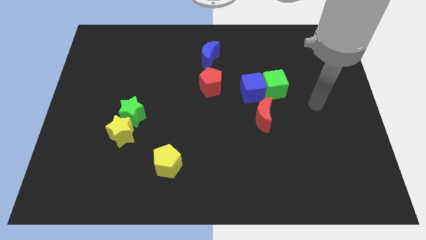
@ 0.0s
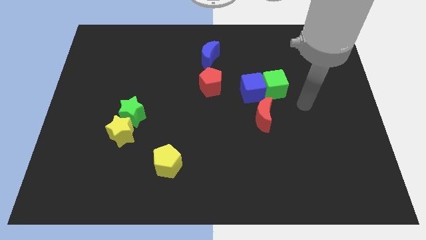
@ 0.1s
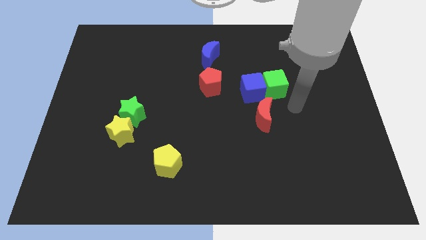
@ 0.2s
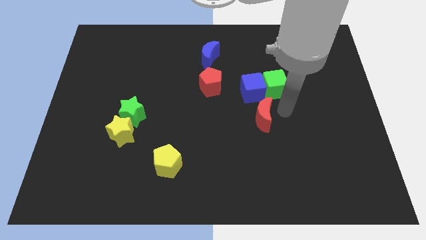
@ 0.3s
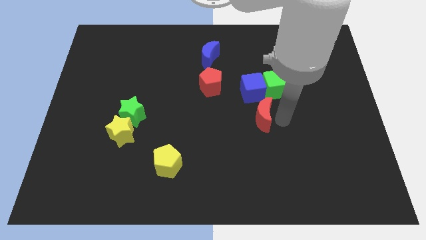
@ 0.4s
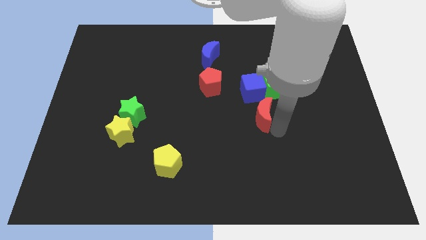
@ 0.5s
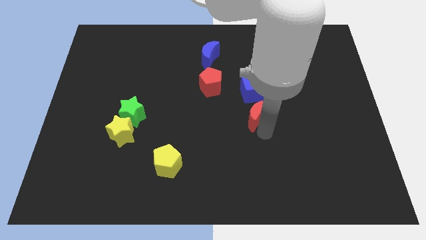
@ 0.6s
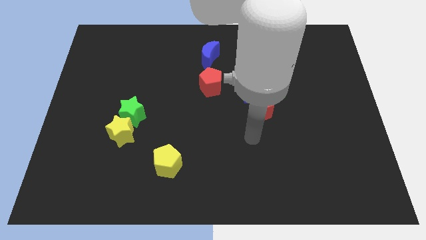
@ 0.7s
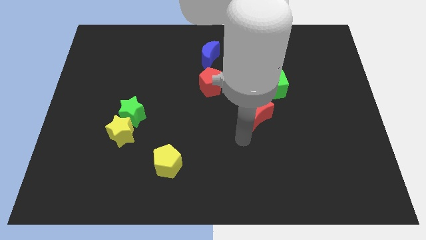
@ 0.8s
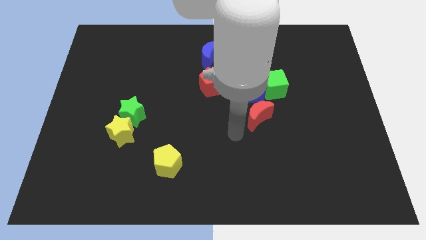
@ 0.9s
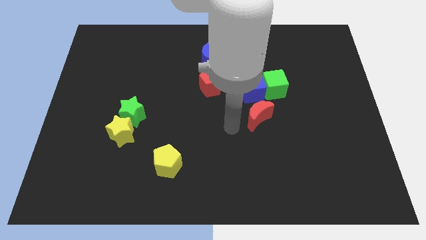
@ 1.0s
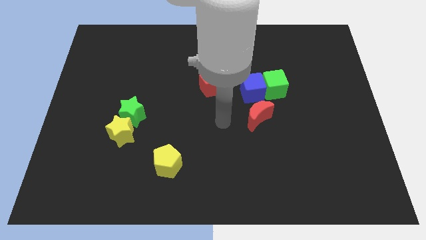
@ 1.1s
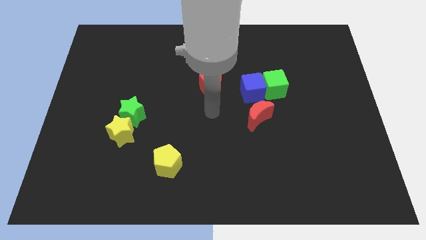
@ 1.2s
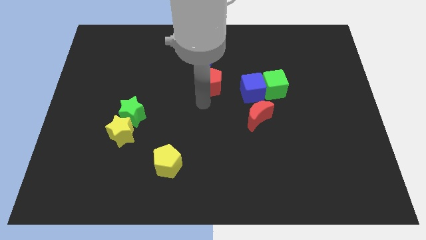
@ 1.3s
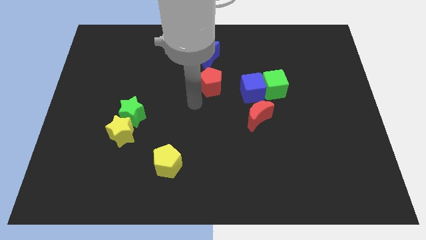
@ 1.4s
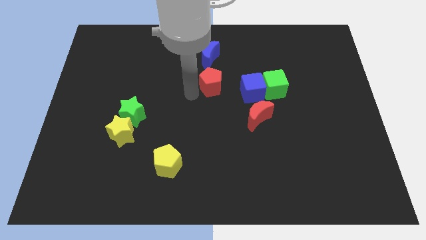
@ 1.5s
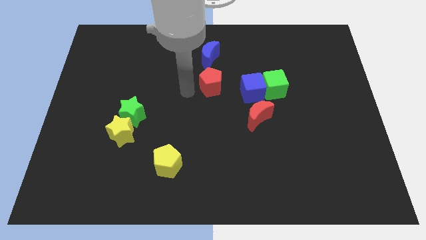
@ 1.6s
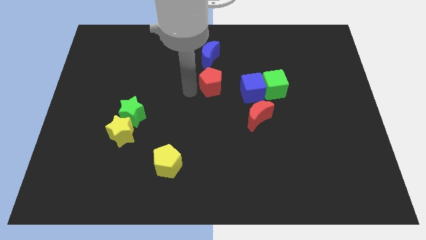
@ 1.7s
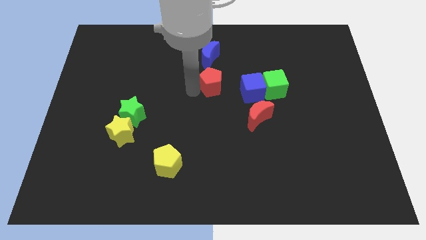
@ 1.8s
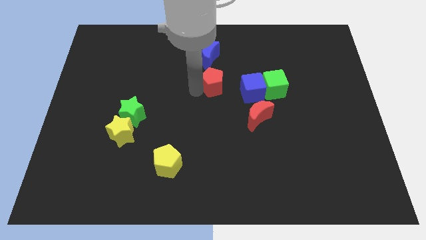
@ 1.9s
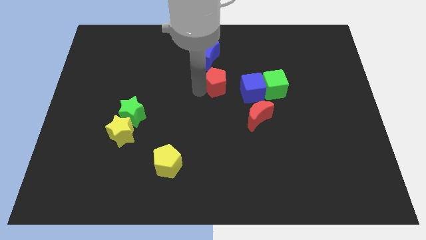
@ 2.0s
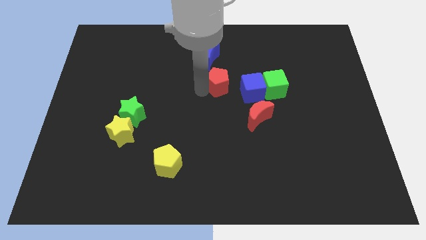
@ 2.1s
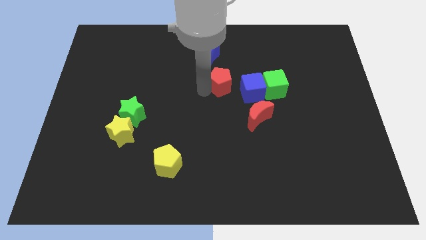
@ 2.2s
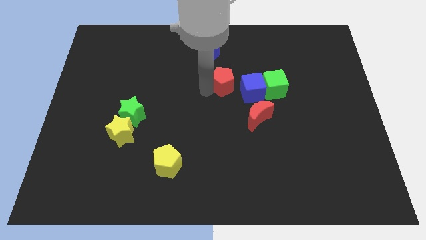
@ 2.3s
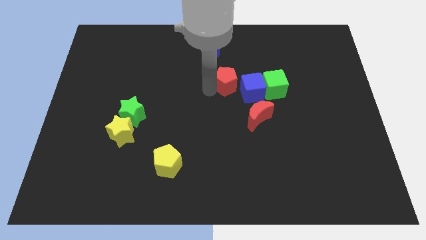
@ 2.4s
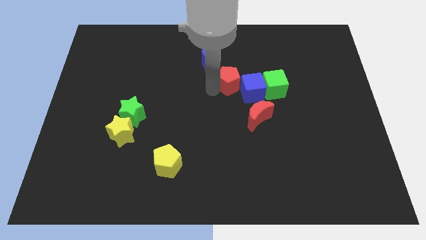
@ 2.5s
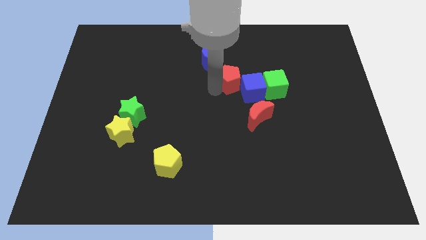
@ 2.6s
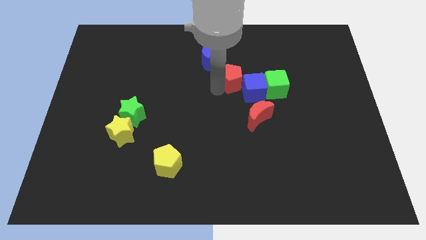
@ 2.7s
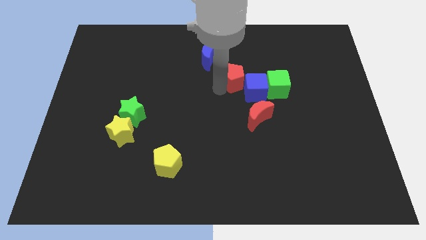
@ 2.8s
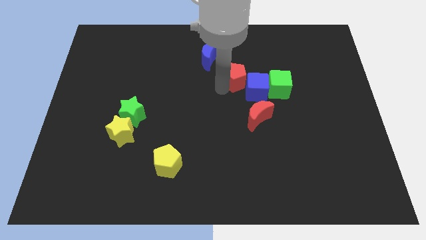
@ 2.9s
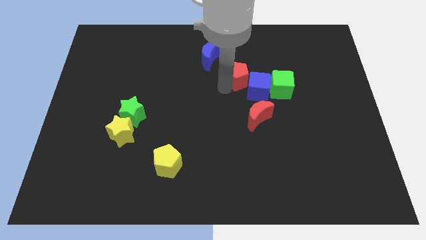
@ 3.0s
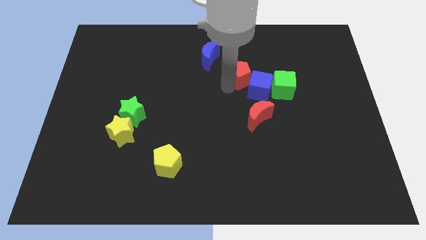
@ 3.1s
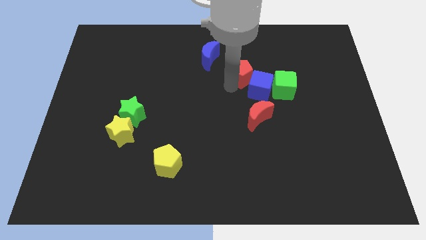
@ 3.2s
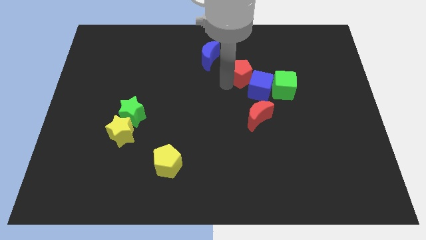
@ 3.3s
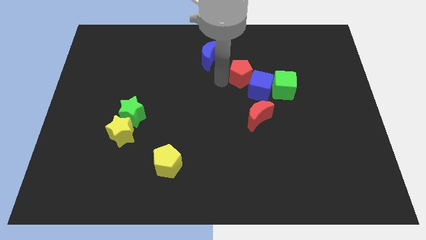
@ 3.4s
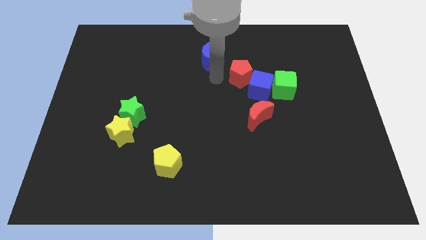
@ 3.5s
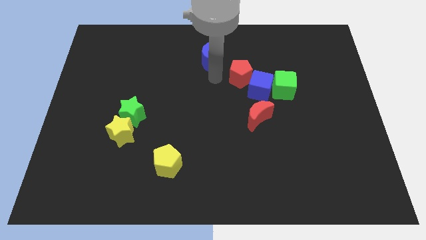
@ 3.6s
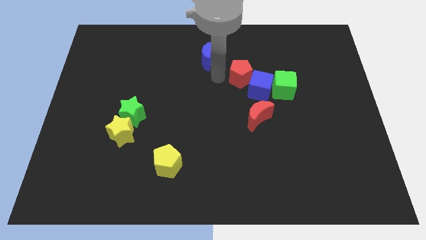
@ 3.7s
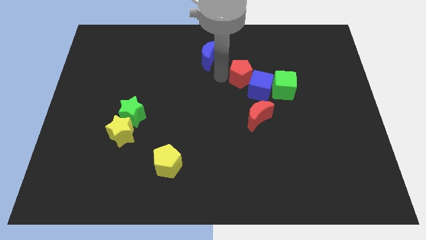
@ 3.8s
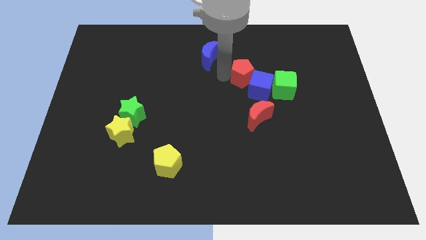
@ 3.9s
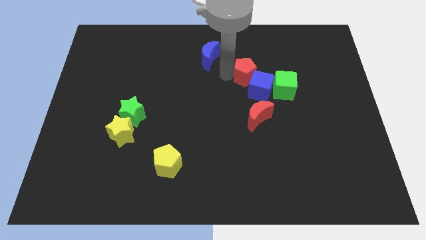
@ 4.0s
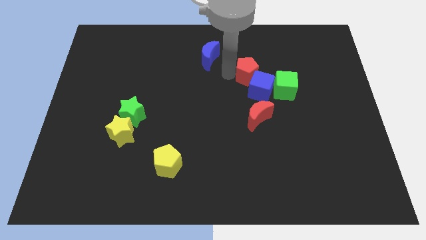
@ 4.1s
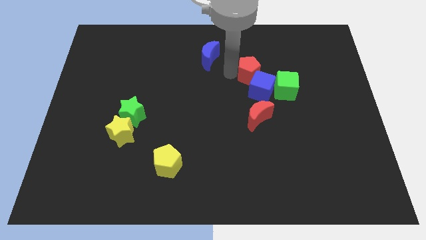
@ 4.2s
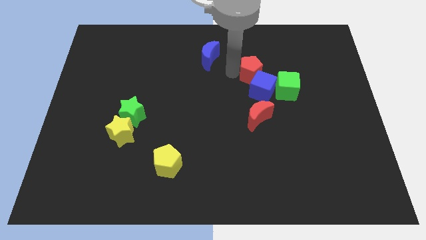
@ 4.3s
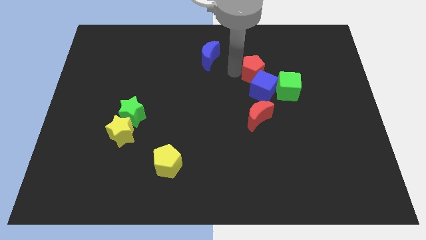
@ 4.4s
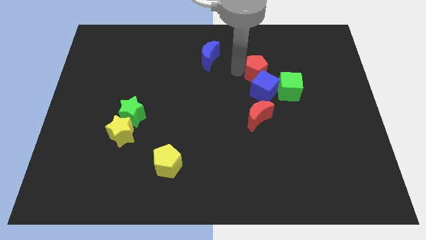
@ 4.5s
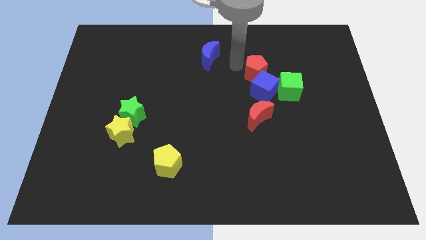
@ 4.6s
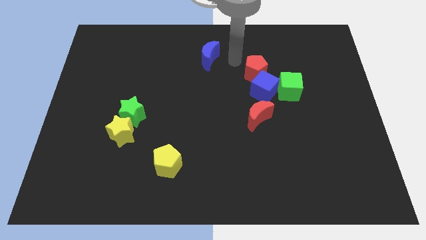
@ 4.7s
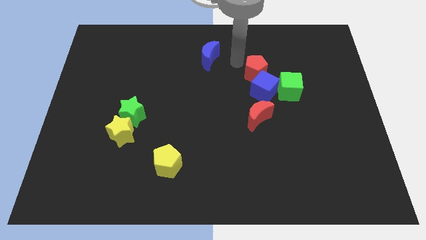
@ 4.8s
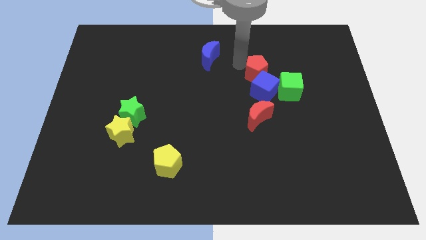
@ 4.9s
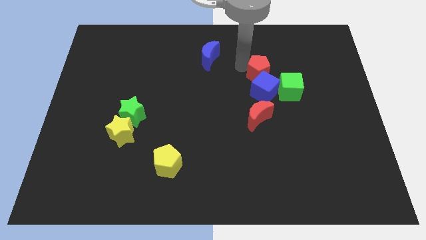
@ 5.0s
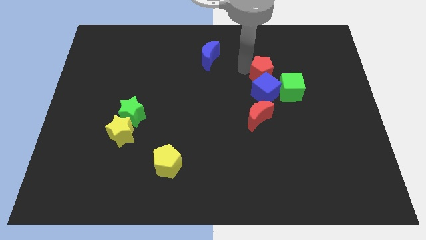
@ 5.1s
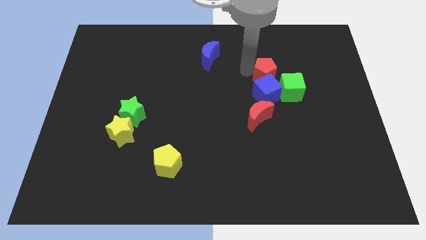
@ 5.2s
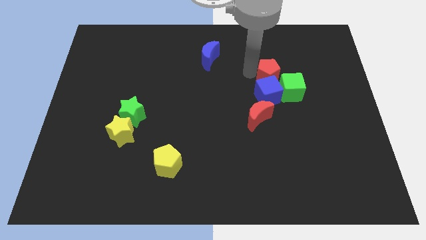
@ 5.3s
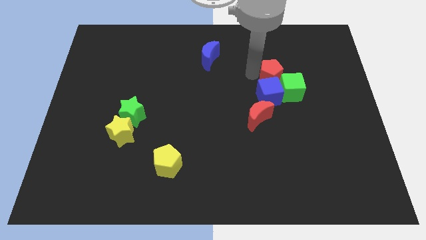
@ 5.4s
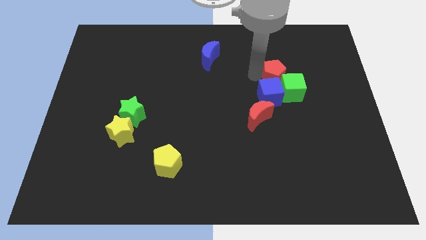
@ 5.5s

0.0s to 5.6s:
put the red pentagon towards the green cube
